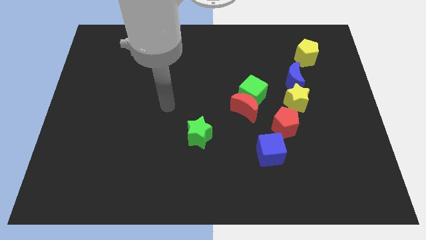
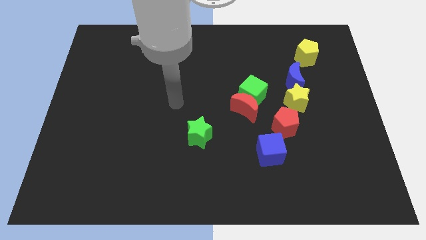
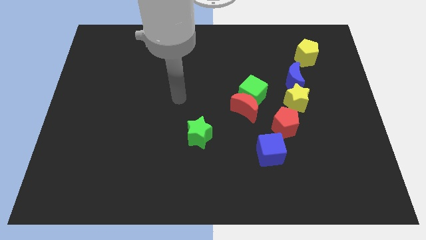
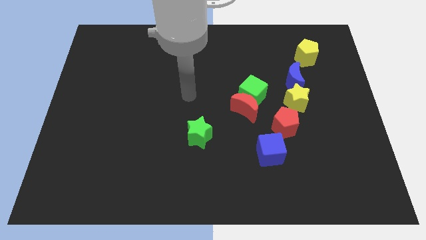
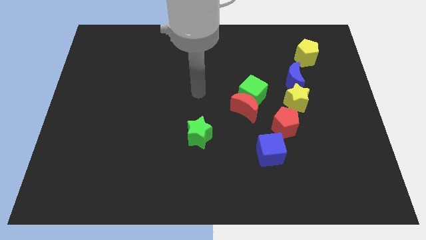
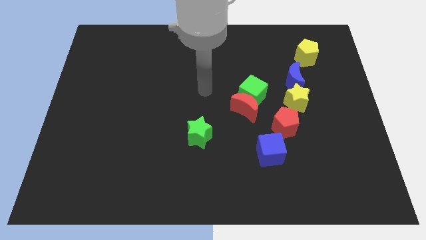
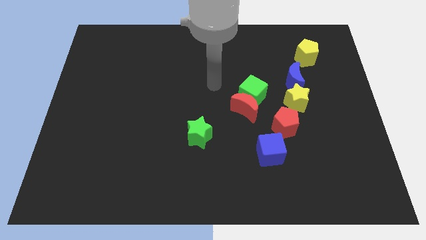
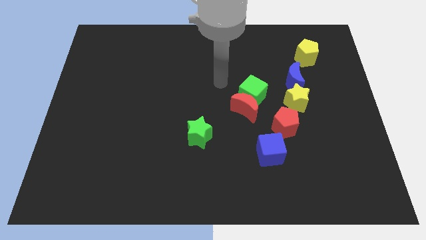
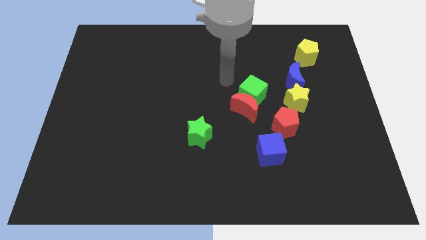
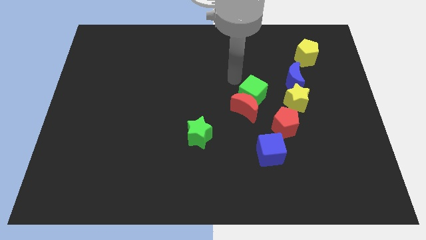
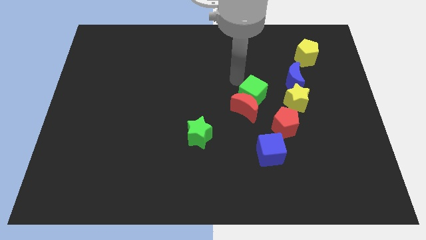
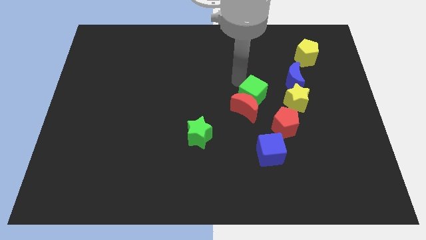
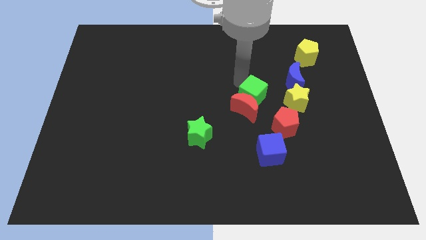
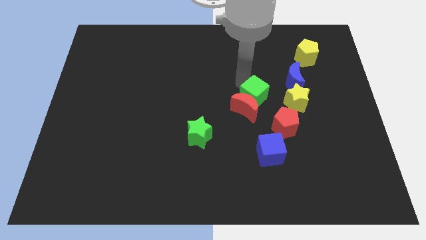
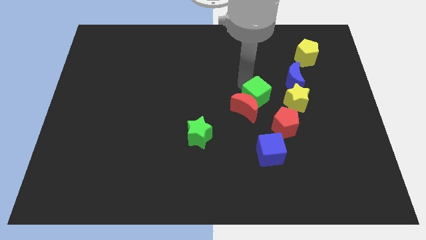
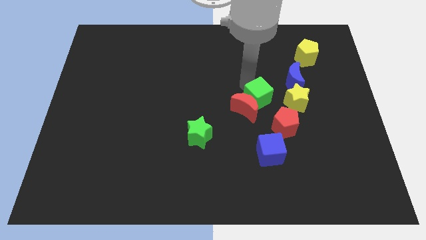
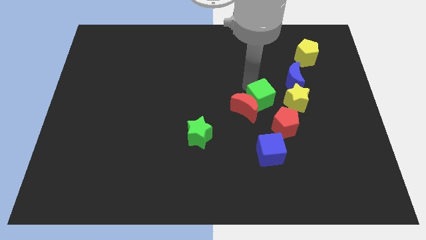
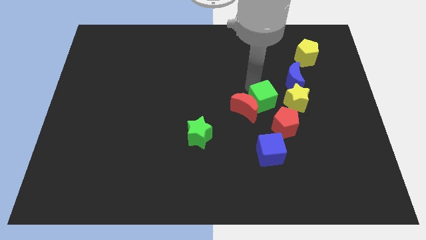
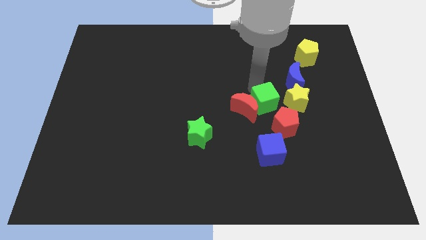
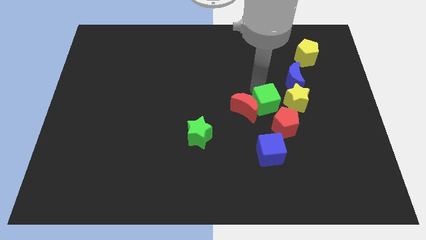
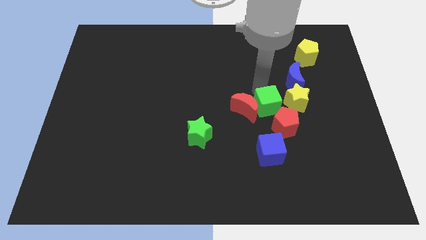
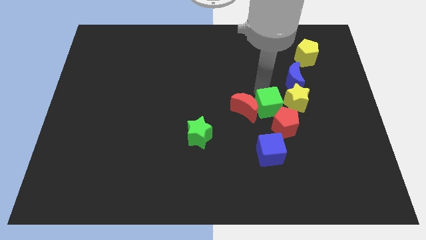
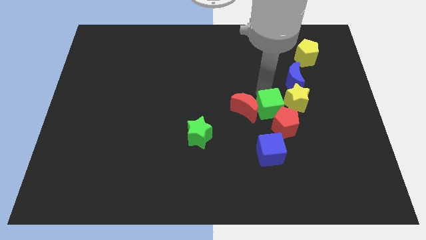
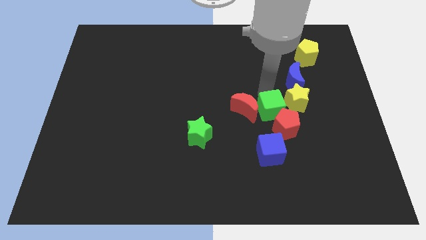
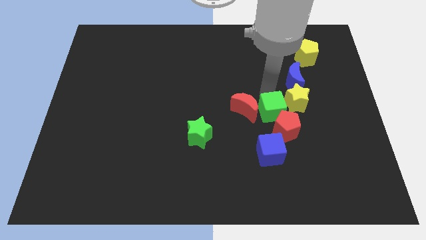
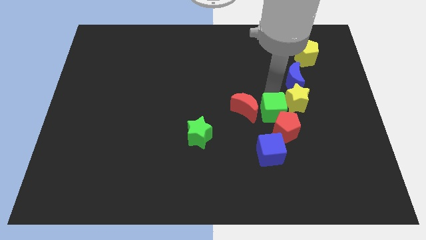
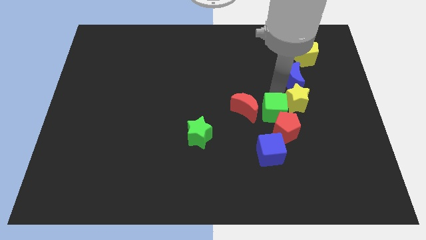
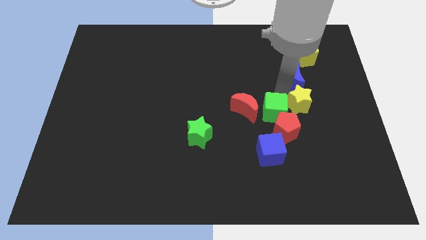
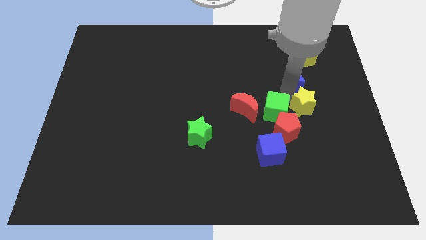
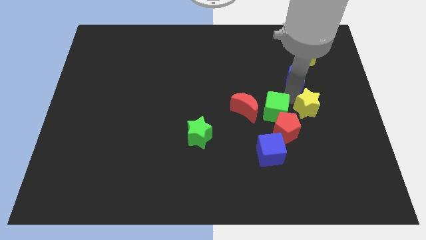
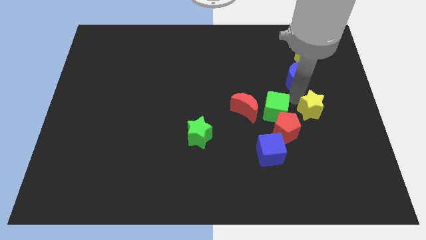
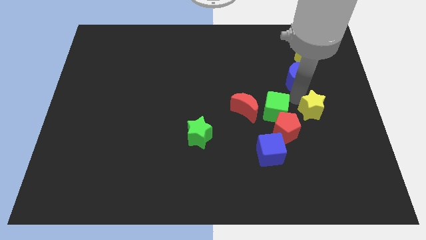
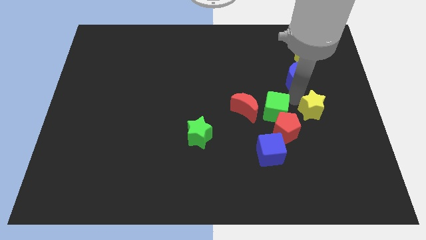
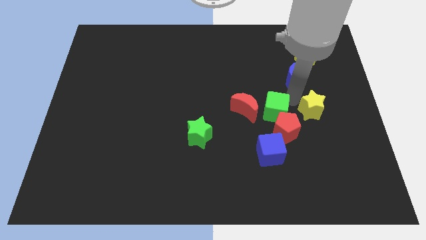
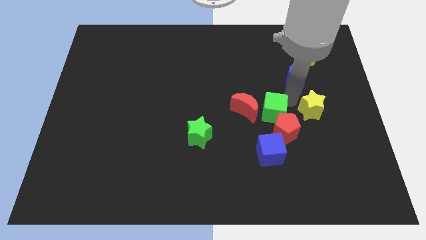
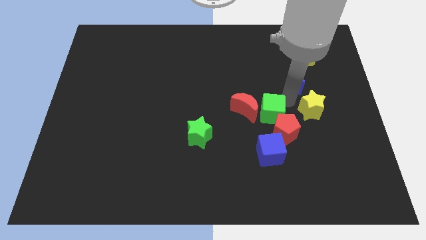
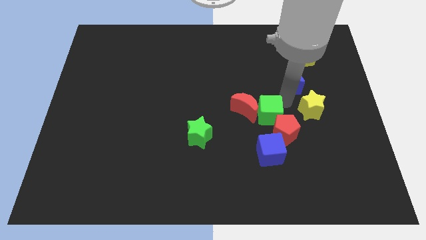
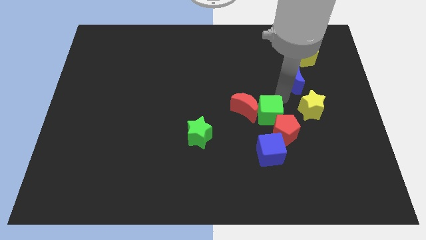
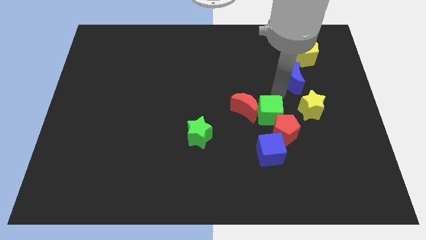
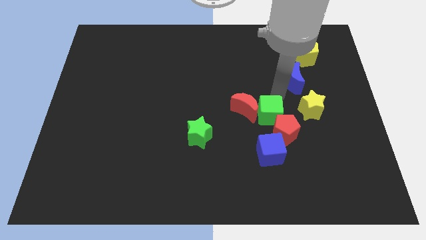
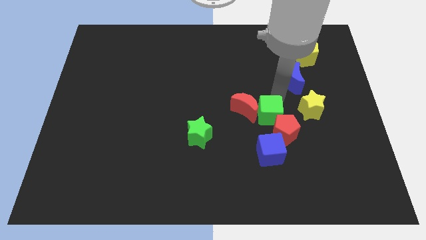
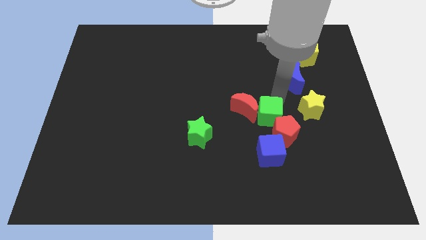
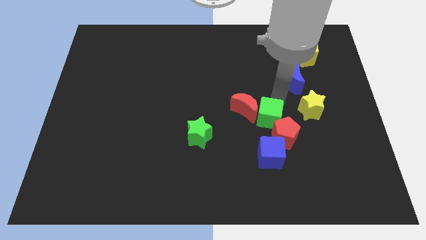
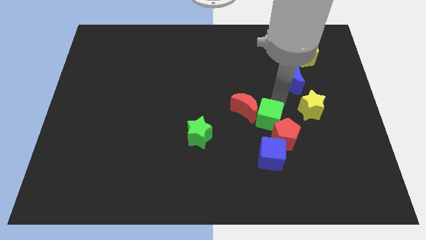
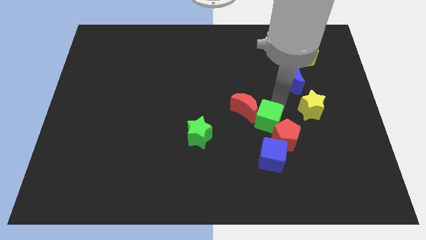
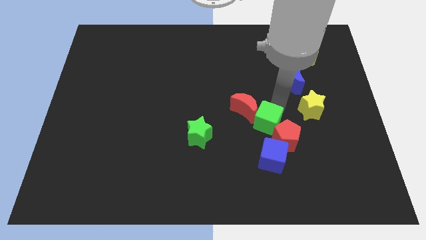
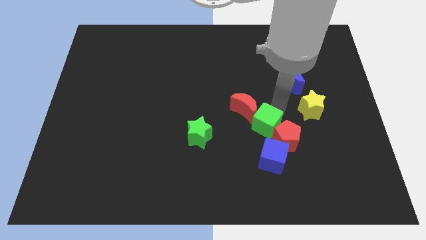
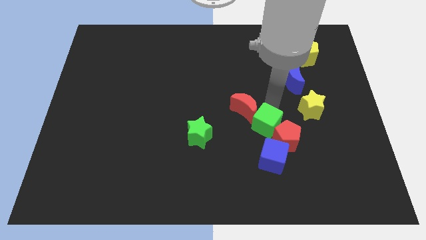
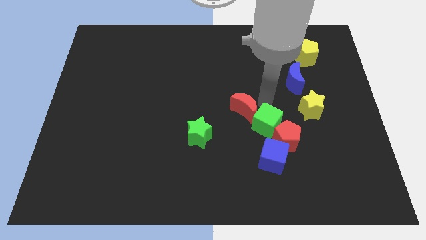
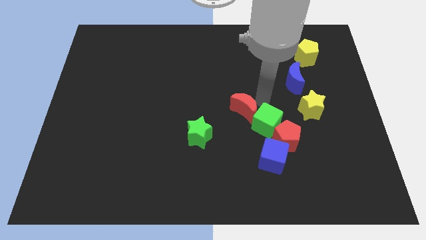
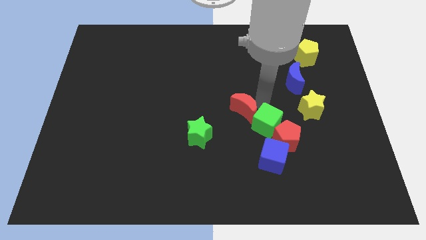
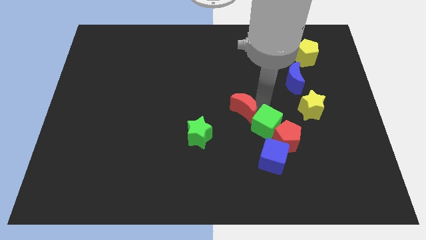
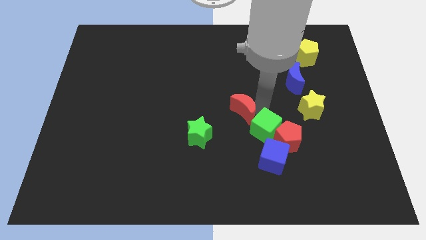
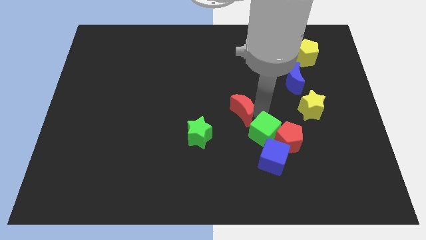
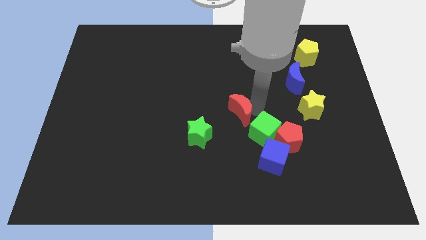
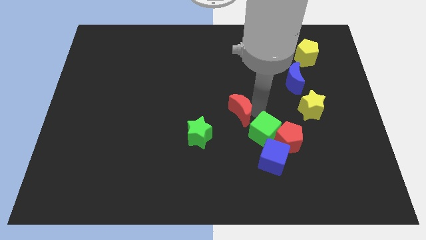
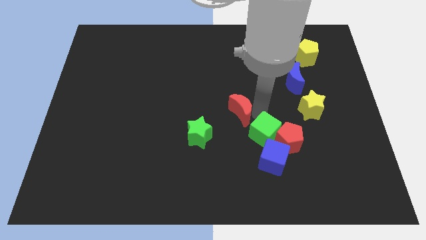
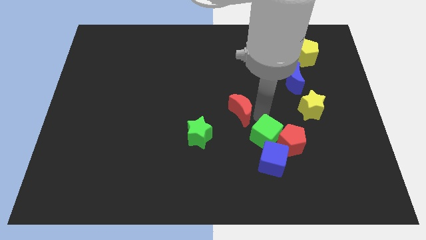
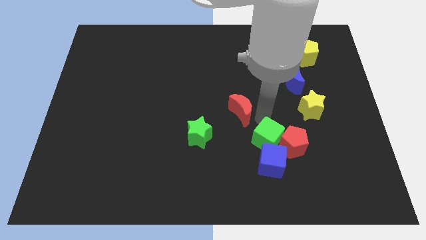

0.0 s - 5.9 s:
push the green cube towards the blue cube

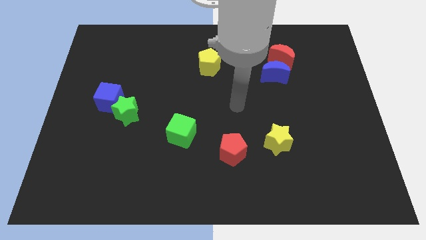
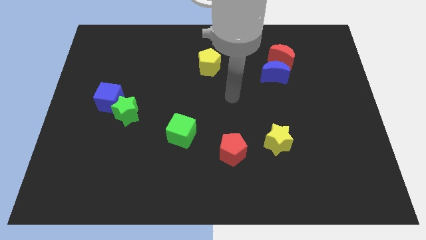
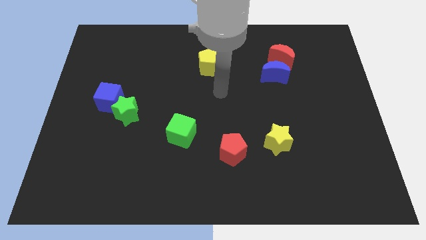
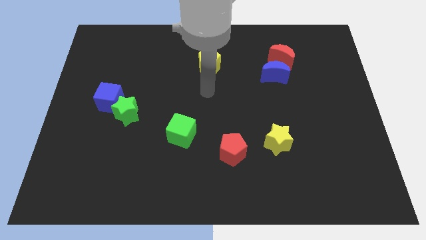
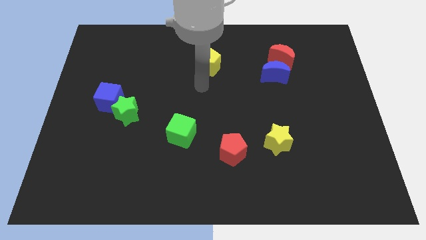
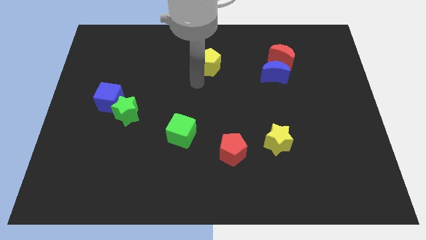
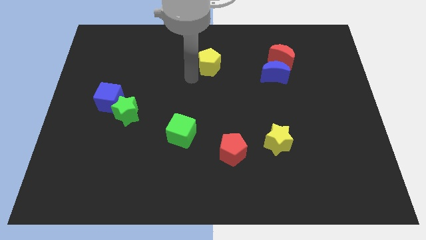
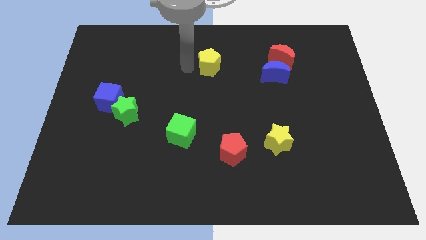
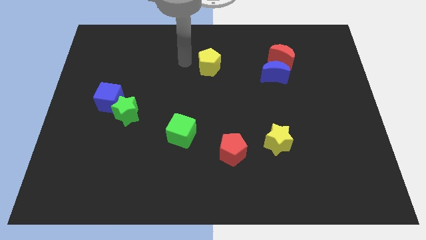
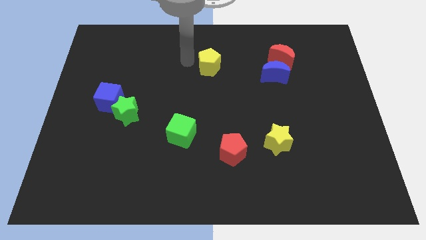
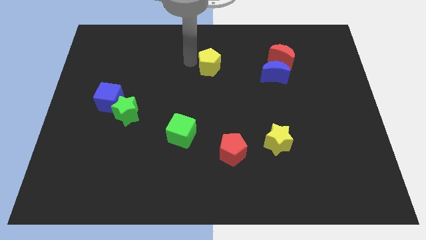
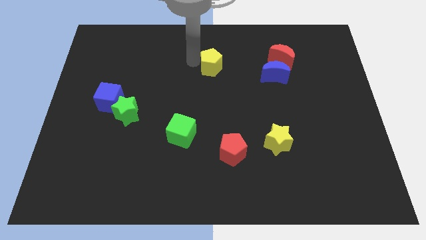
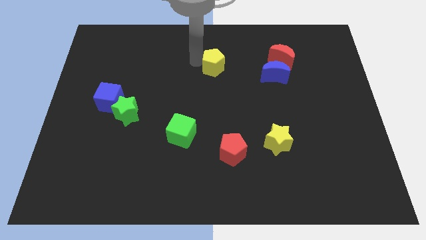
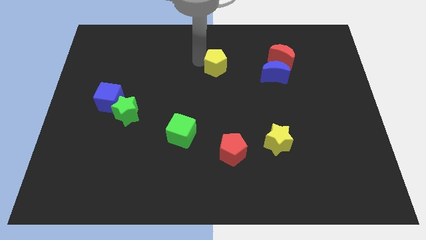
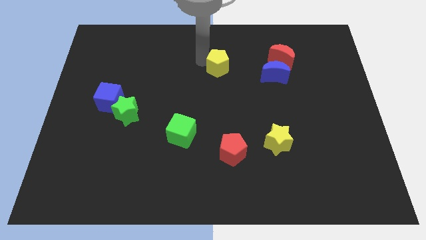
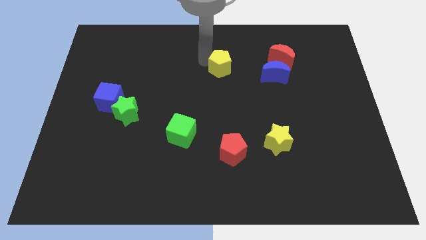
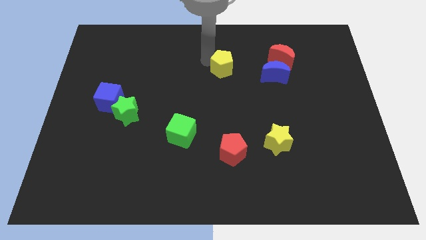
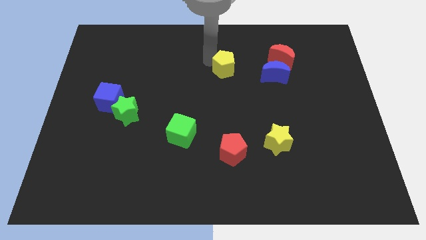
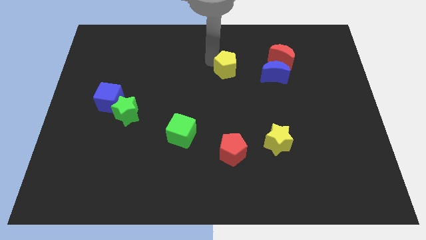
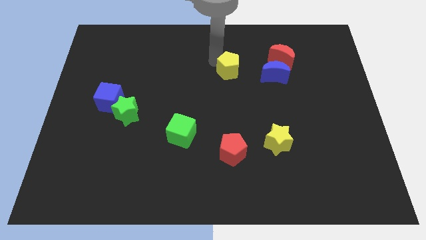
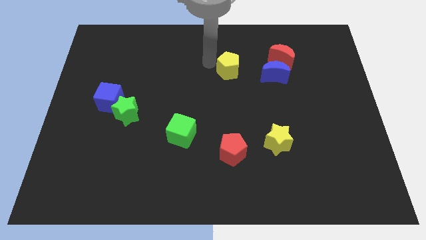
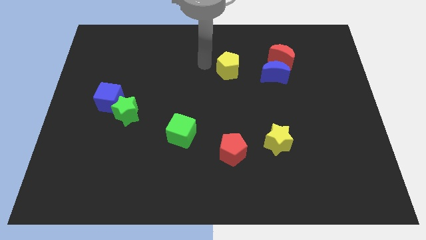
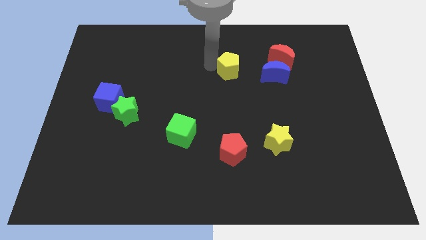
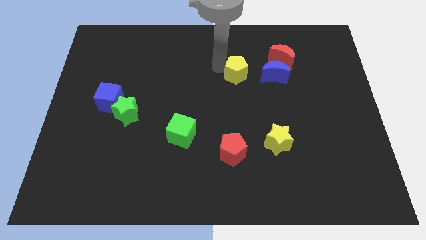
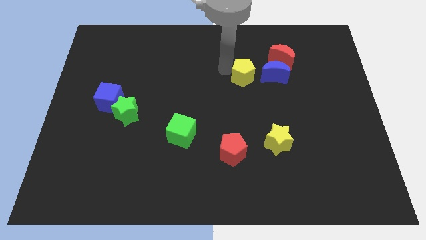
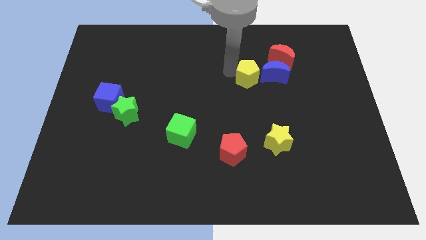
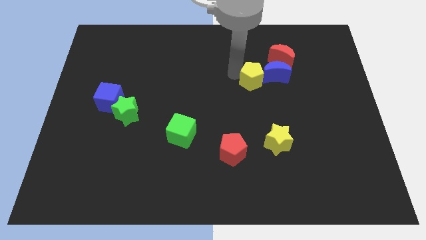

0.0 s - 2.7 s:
put the yellow pentagon towards the blue moon
